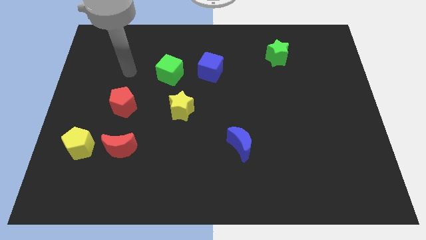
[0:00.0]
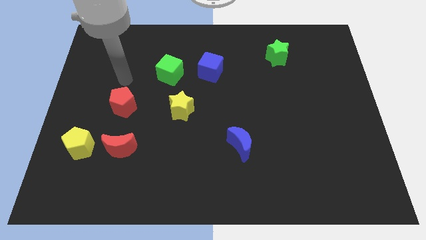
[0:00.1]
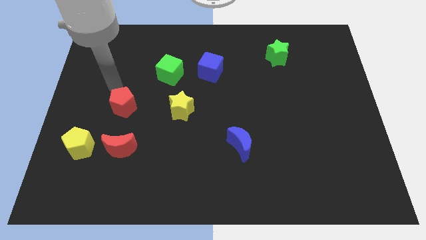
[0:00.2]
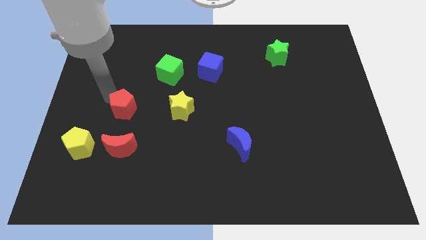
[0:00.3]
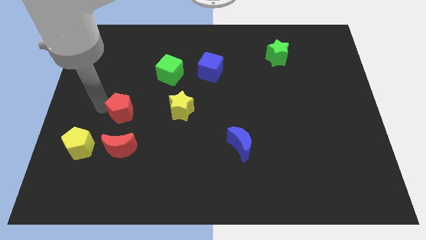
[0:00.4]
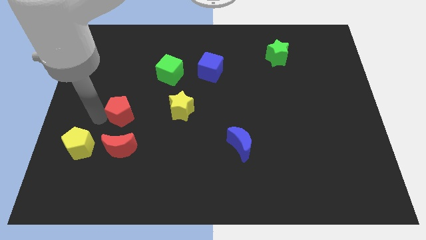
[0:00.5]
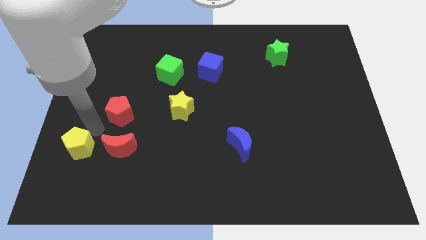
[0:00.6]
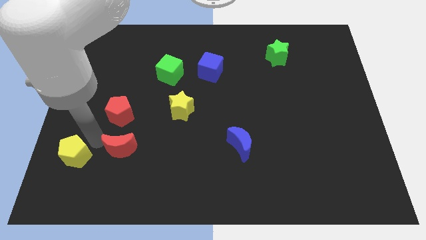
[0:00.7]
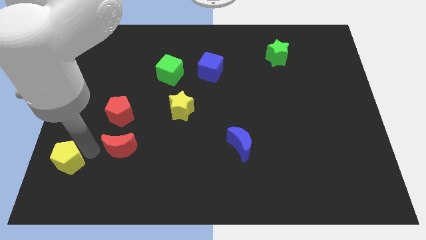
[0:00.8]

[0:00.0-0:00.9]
pull the red moon apart from the yellow pentagon

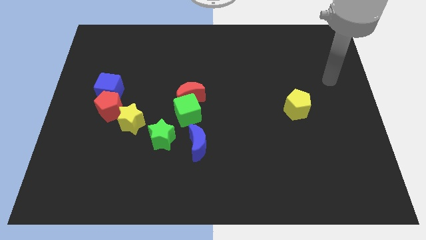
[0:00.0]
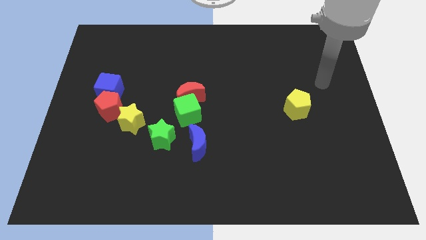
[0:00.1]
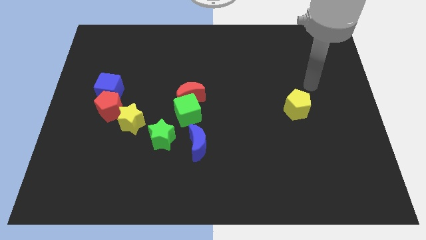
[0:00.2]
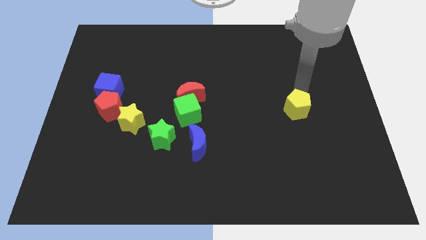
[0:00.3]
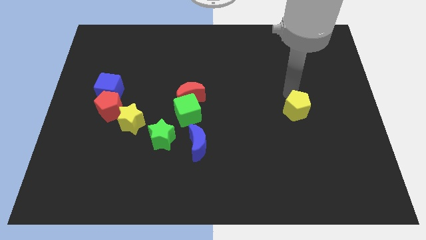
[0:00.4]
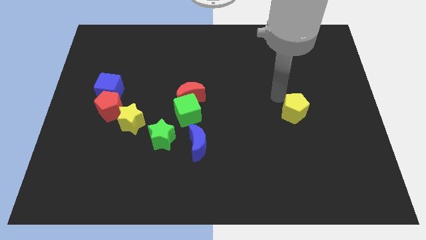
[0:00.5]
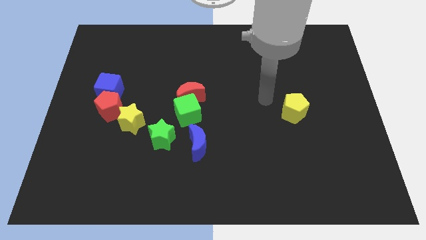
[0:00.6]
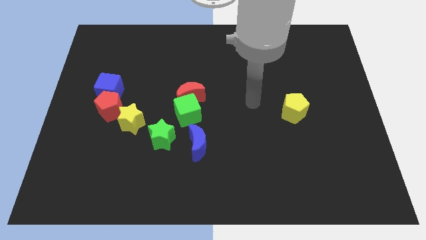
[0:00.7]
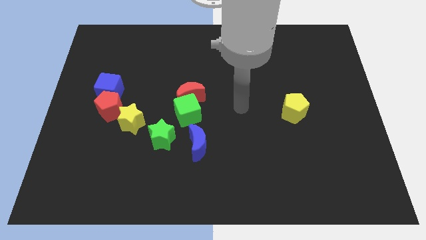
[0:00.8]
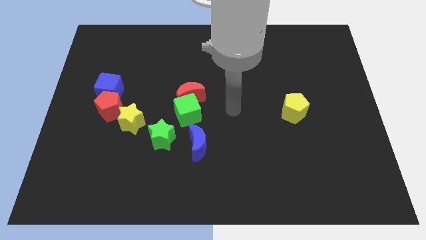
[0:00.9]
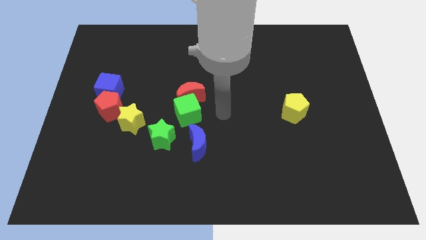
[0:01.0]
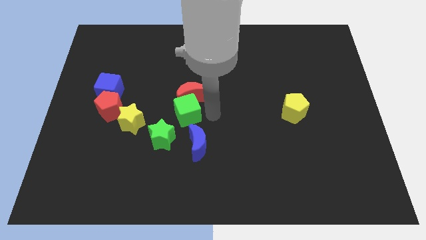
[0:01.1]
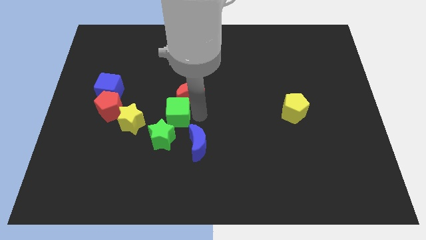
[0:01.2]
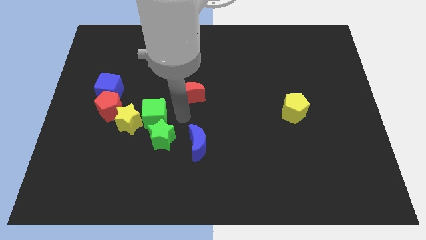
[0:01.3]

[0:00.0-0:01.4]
pull the red moon apart from the green cube

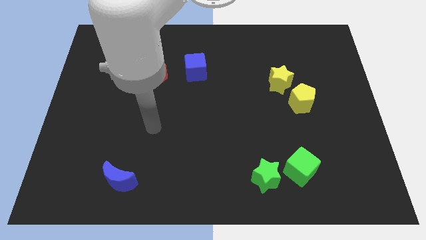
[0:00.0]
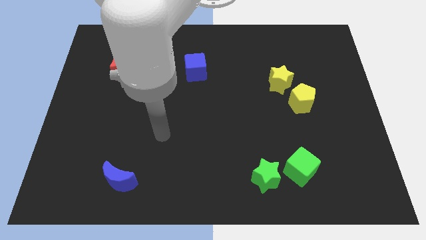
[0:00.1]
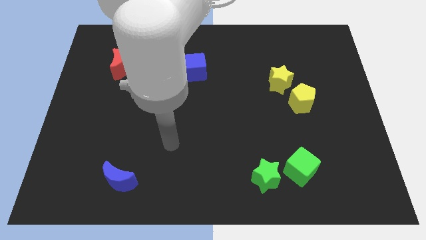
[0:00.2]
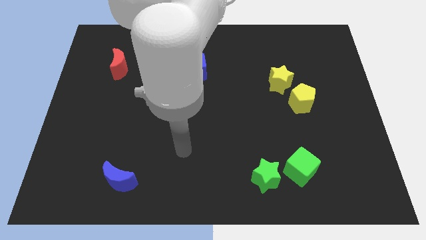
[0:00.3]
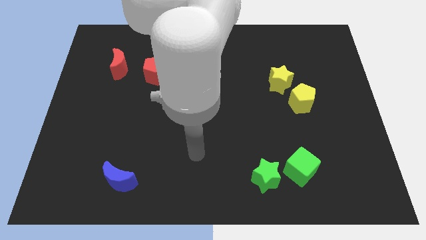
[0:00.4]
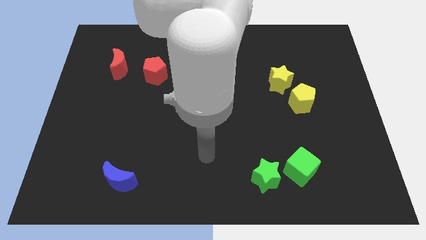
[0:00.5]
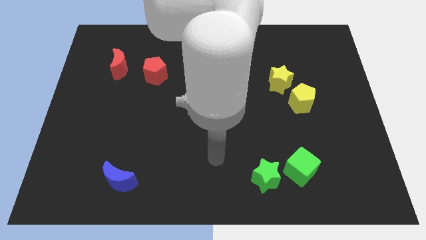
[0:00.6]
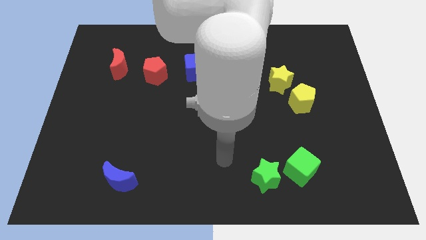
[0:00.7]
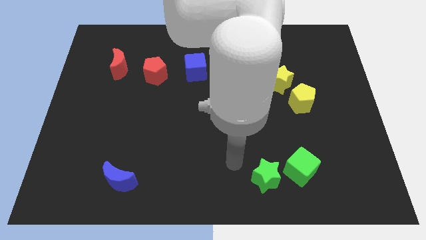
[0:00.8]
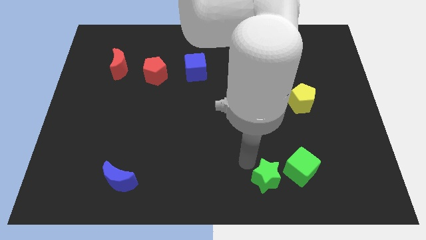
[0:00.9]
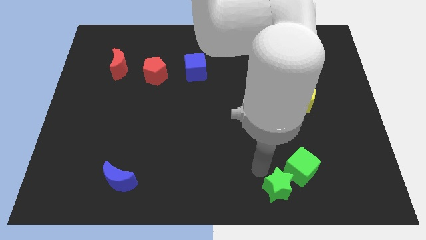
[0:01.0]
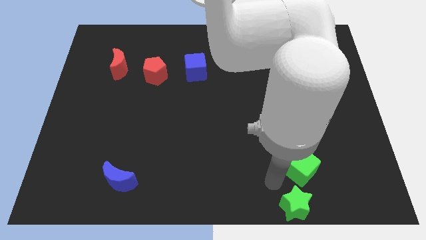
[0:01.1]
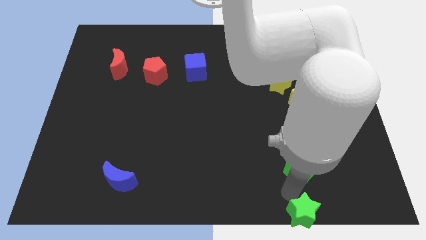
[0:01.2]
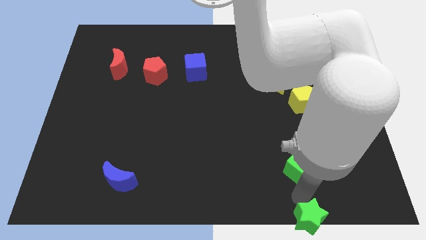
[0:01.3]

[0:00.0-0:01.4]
separate the green cube from the green star

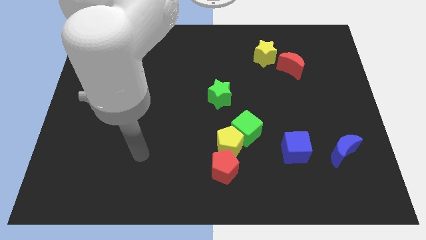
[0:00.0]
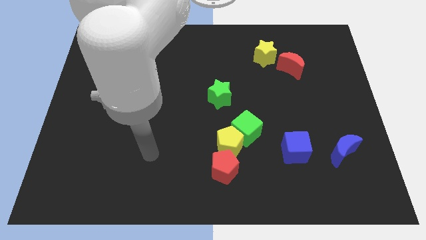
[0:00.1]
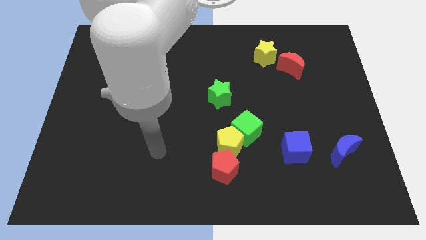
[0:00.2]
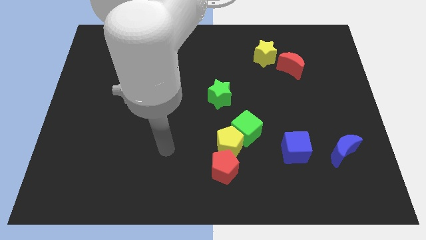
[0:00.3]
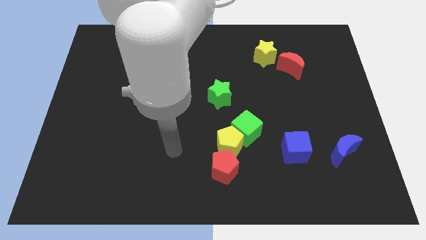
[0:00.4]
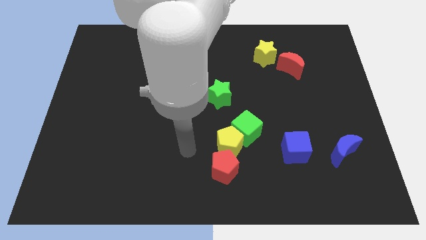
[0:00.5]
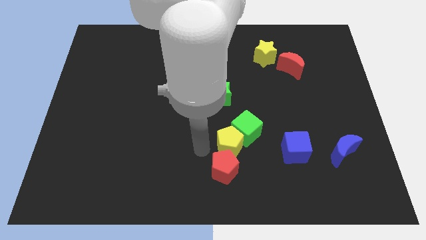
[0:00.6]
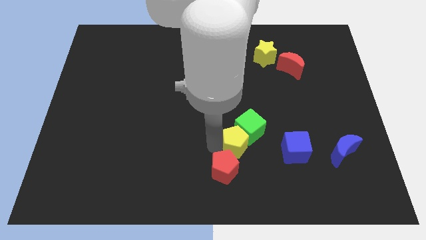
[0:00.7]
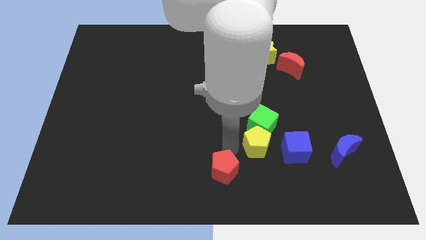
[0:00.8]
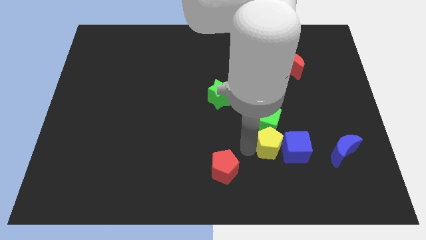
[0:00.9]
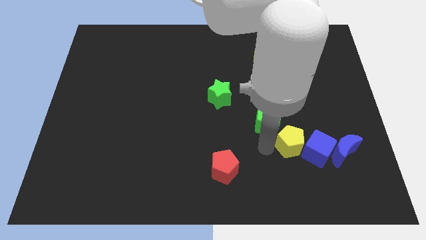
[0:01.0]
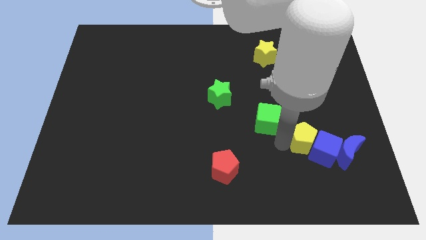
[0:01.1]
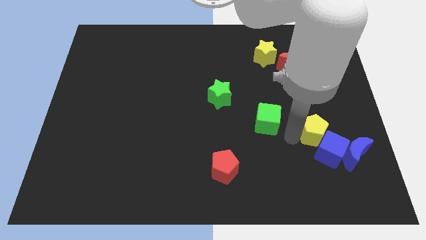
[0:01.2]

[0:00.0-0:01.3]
pull the green cube apart from the yellow pentagon

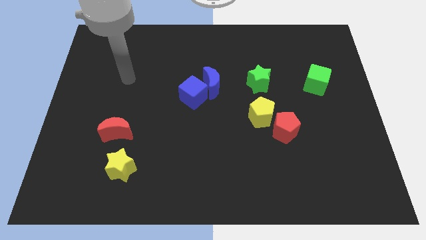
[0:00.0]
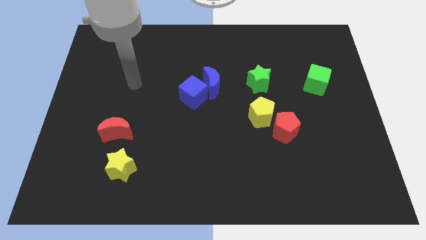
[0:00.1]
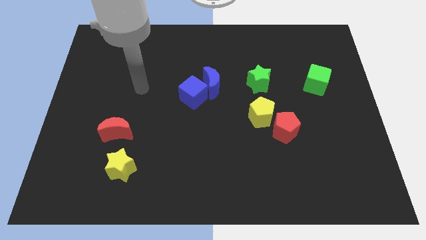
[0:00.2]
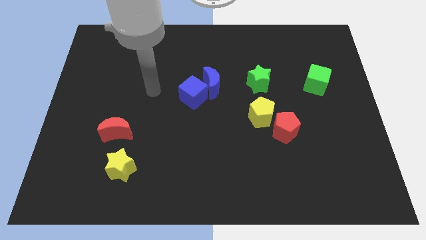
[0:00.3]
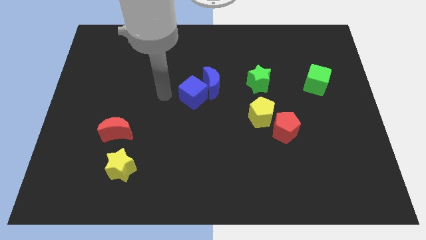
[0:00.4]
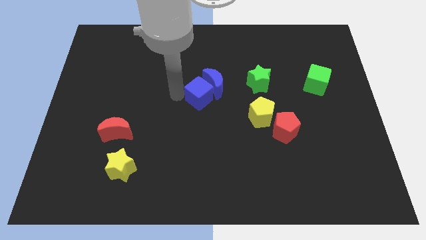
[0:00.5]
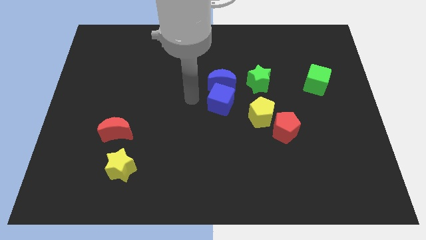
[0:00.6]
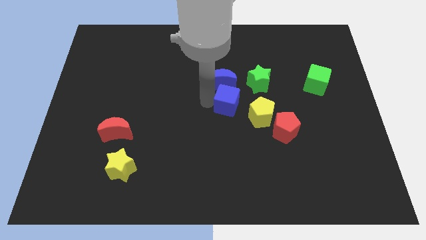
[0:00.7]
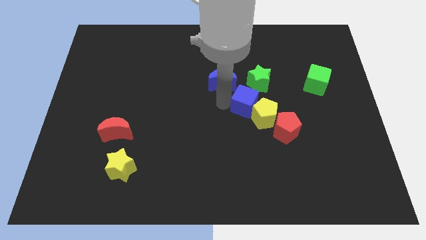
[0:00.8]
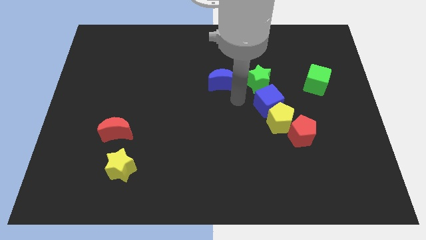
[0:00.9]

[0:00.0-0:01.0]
pull the blue moon apart from the blue cube

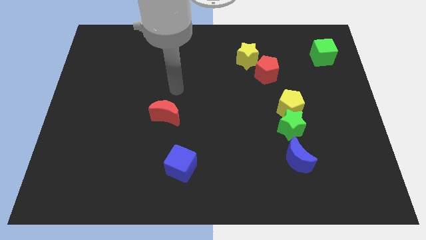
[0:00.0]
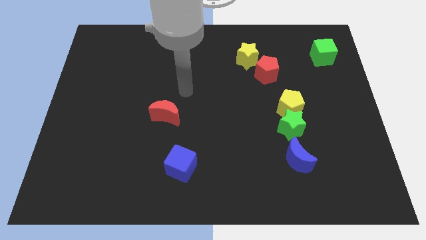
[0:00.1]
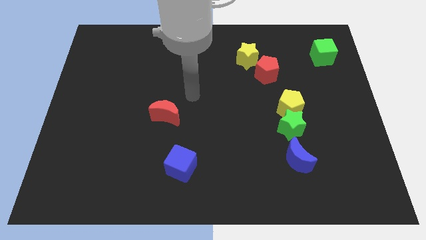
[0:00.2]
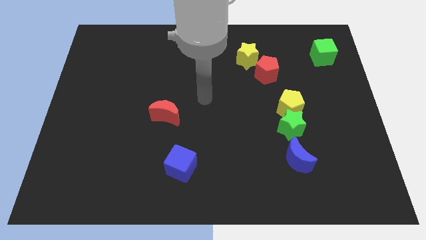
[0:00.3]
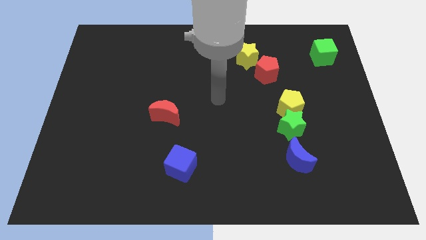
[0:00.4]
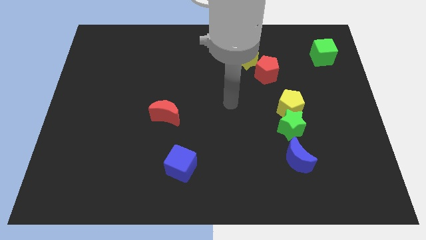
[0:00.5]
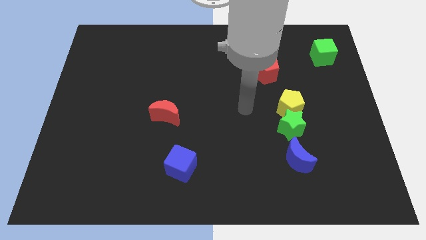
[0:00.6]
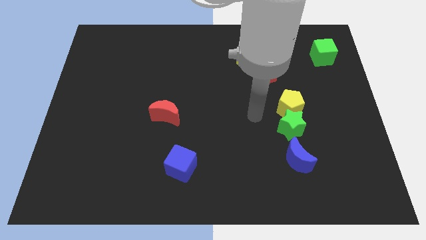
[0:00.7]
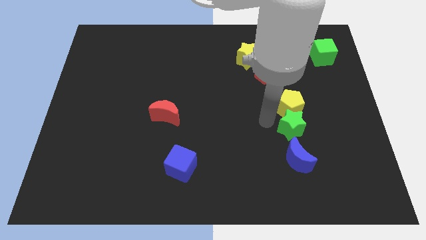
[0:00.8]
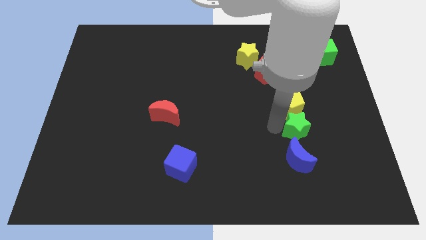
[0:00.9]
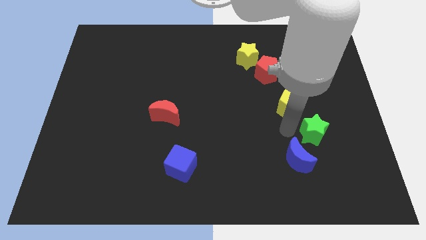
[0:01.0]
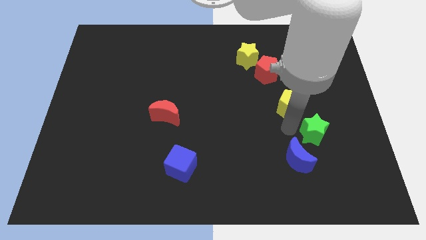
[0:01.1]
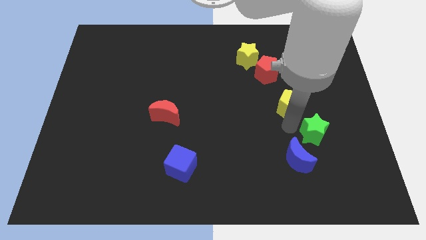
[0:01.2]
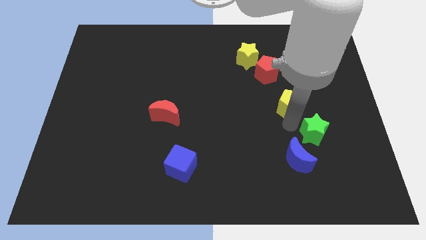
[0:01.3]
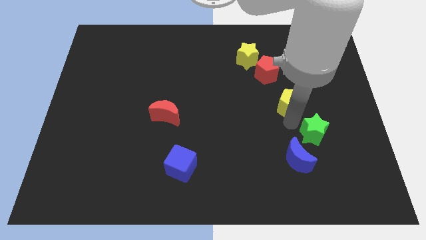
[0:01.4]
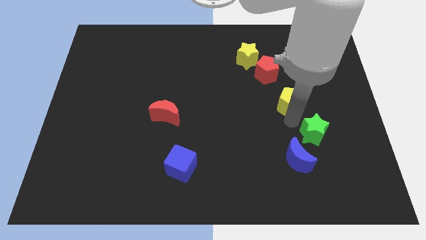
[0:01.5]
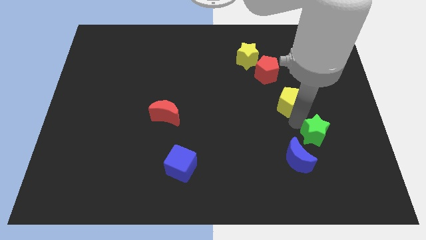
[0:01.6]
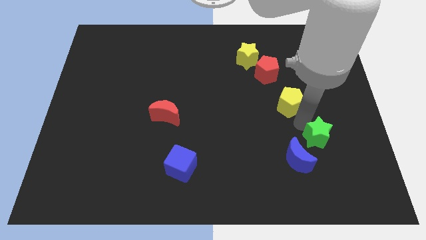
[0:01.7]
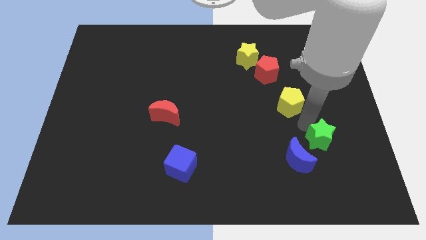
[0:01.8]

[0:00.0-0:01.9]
move the yellow pentagon away from the green star

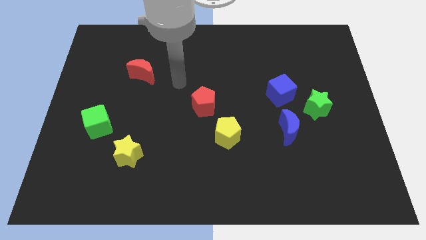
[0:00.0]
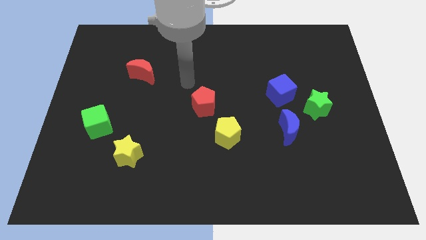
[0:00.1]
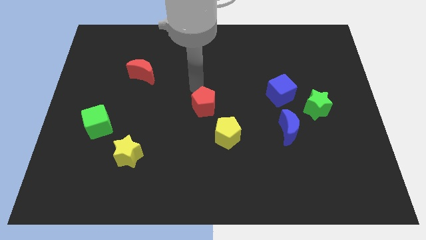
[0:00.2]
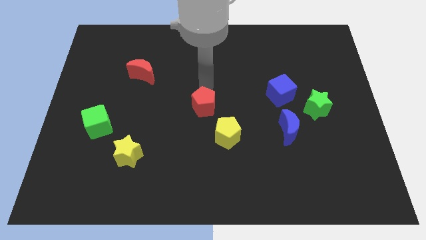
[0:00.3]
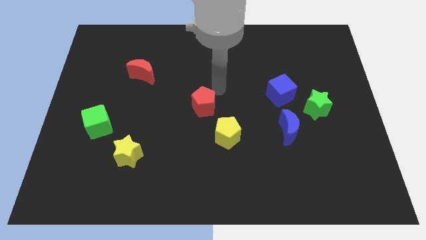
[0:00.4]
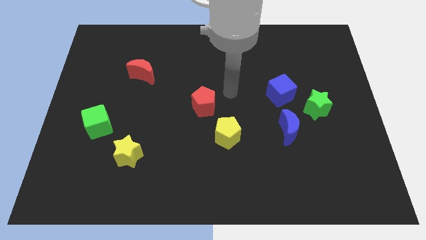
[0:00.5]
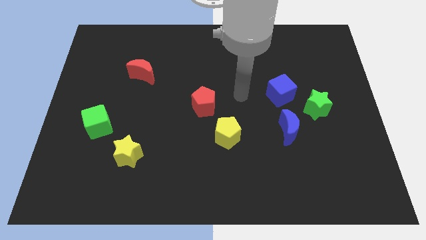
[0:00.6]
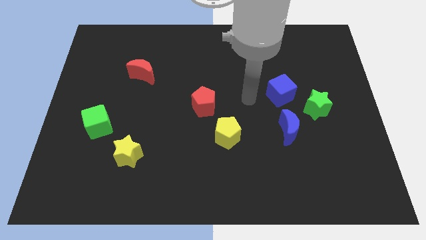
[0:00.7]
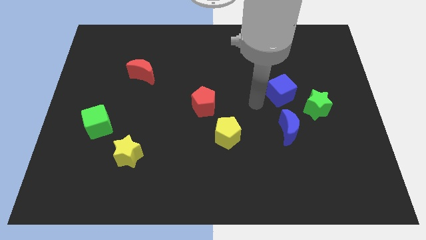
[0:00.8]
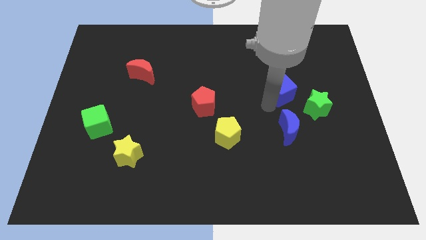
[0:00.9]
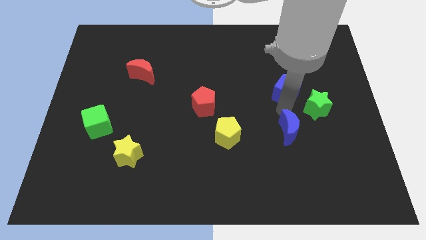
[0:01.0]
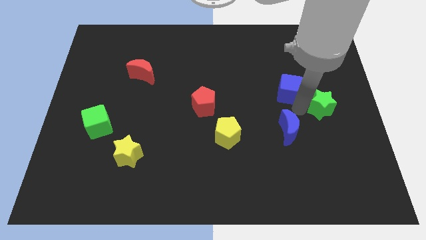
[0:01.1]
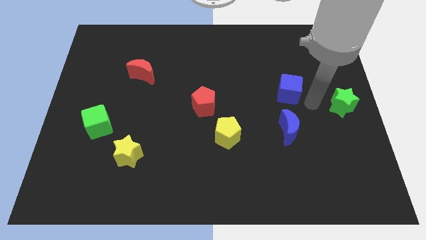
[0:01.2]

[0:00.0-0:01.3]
move the blue cube away from the green star

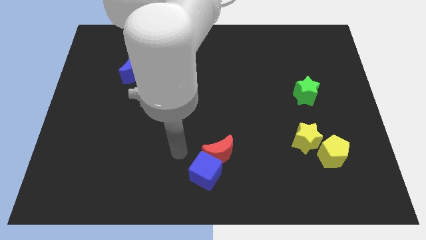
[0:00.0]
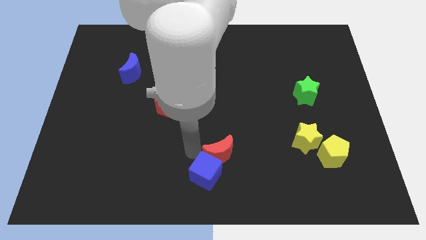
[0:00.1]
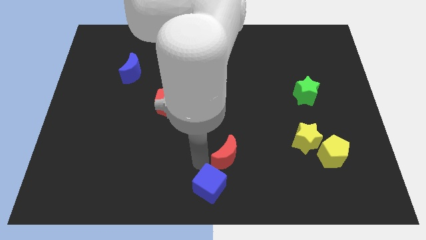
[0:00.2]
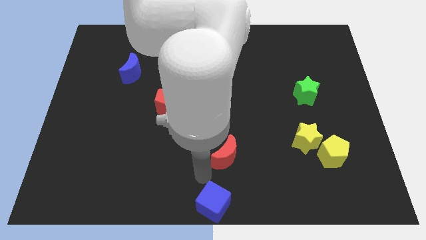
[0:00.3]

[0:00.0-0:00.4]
separate the red moon from the blue cube
